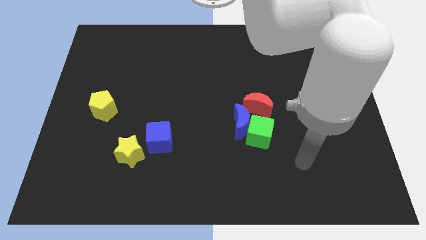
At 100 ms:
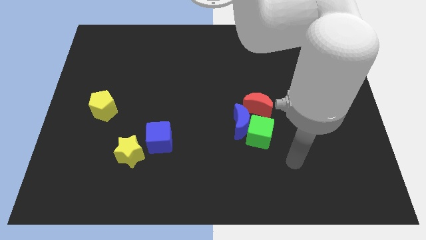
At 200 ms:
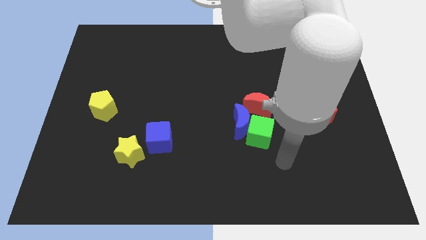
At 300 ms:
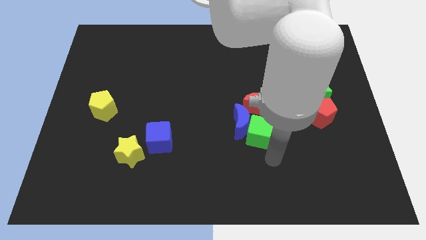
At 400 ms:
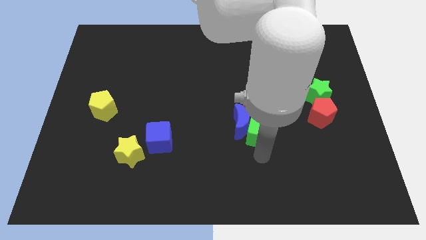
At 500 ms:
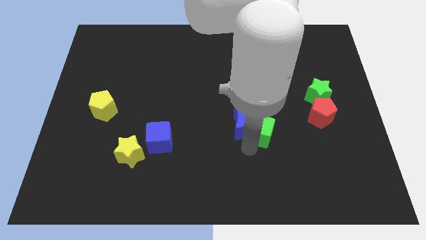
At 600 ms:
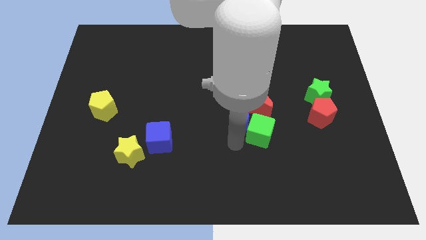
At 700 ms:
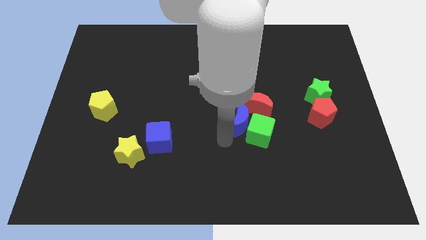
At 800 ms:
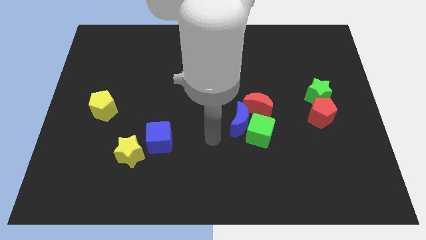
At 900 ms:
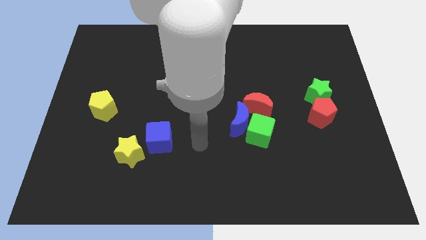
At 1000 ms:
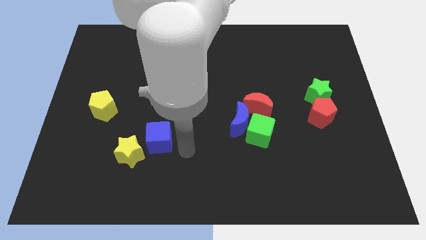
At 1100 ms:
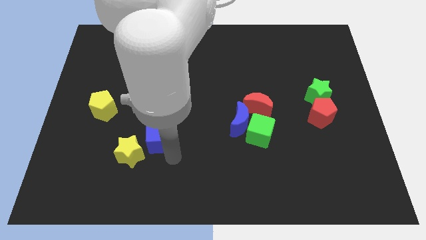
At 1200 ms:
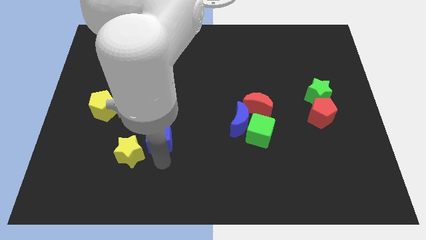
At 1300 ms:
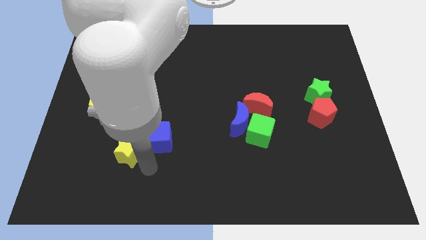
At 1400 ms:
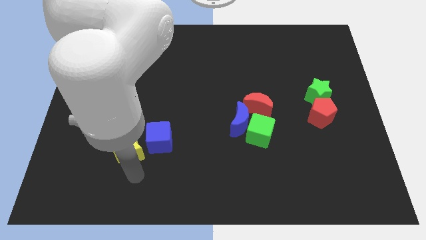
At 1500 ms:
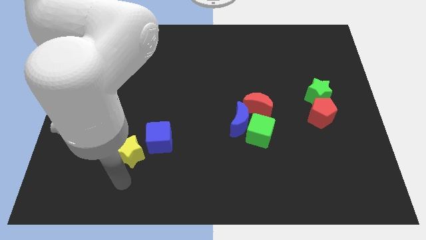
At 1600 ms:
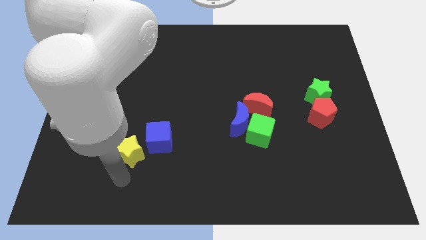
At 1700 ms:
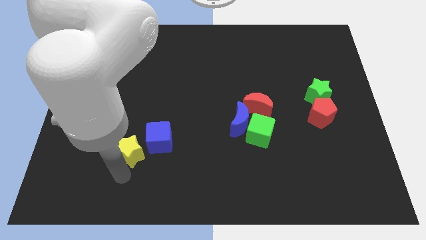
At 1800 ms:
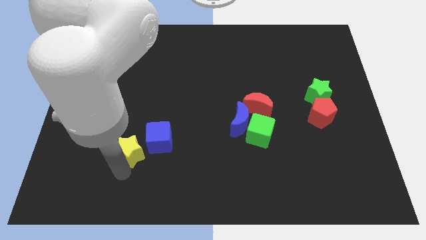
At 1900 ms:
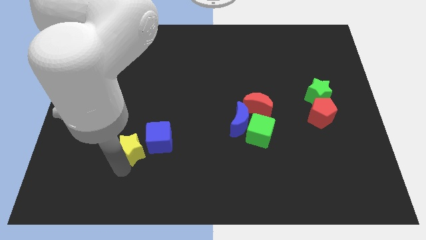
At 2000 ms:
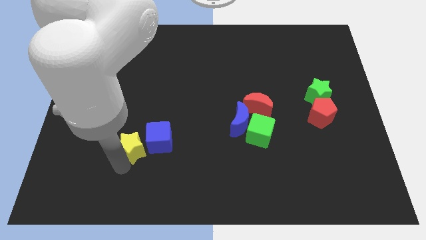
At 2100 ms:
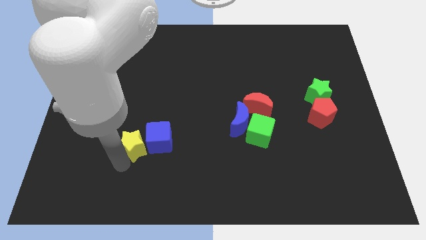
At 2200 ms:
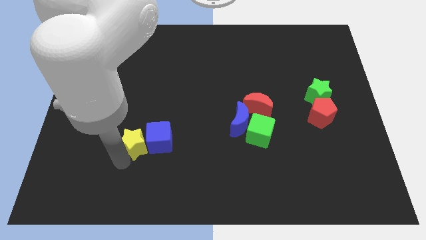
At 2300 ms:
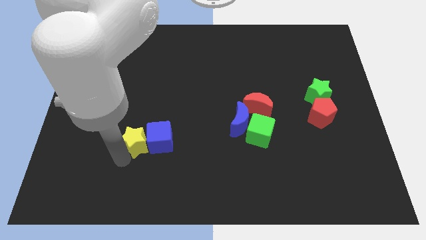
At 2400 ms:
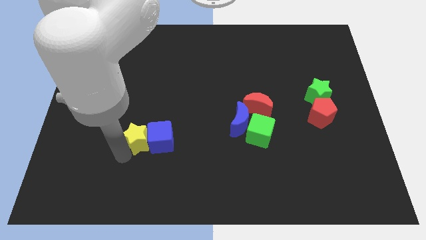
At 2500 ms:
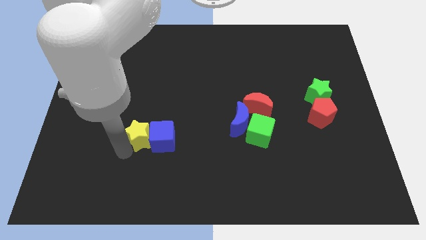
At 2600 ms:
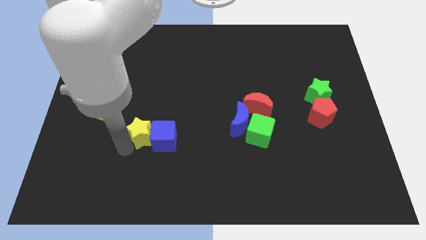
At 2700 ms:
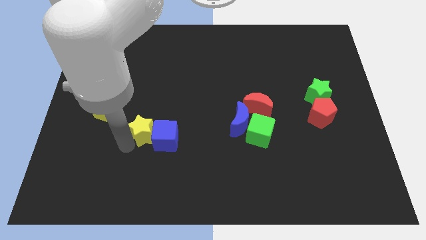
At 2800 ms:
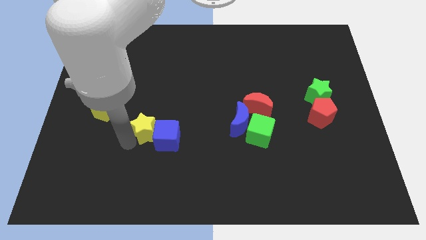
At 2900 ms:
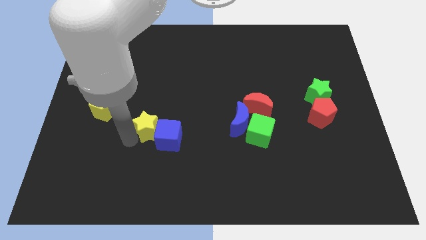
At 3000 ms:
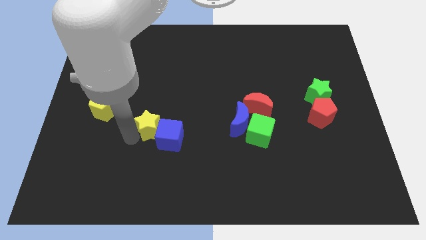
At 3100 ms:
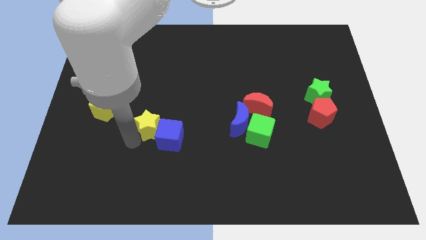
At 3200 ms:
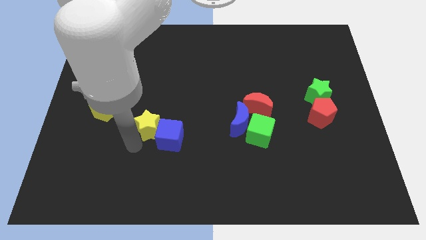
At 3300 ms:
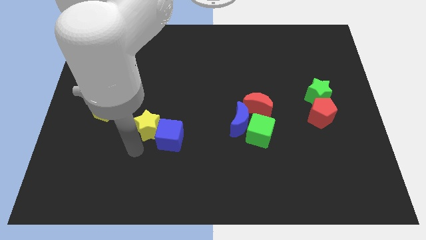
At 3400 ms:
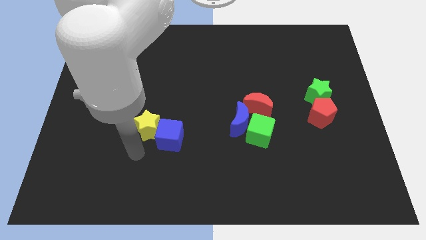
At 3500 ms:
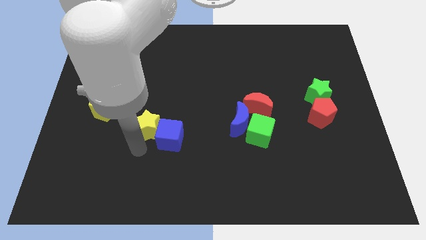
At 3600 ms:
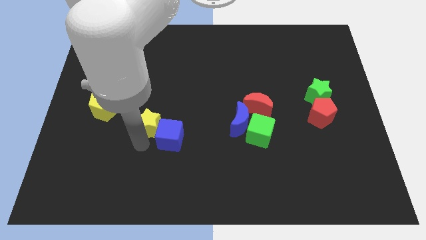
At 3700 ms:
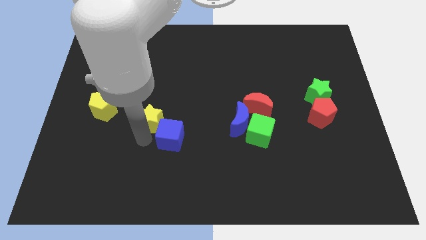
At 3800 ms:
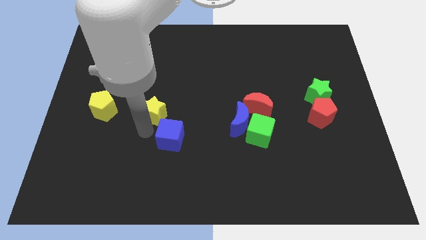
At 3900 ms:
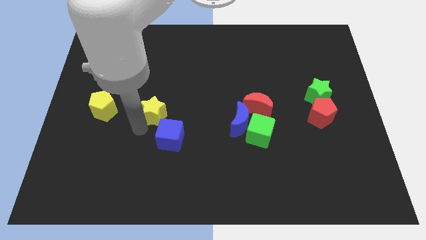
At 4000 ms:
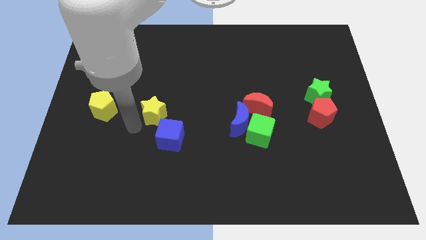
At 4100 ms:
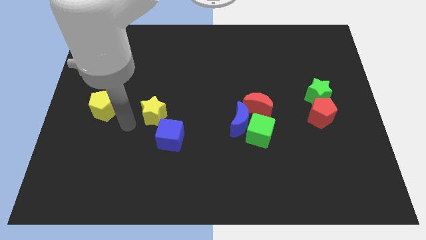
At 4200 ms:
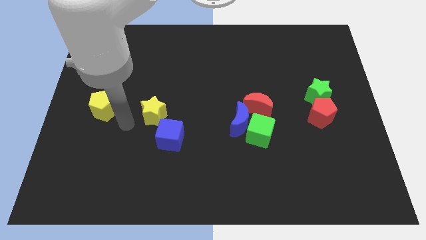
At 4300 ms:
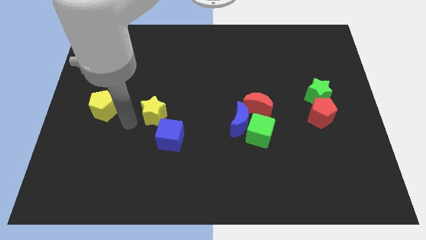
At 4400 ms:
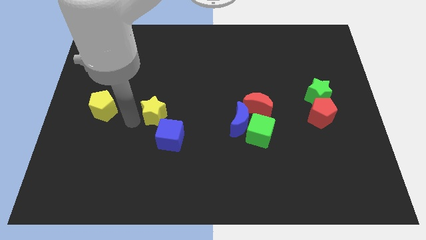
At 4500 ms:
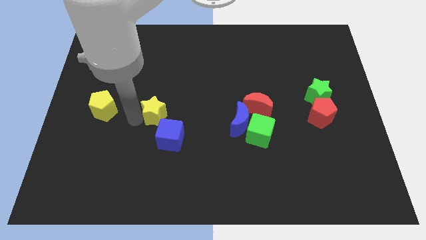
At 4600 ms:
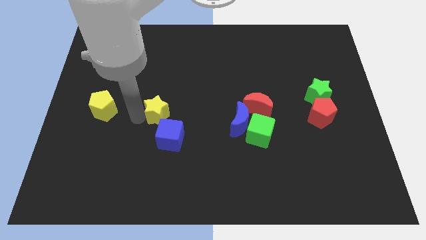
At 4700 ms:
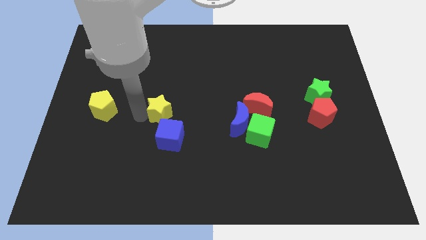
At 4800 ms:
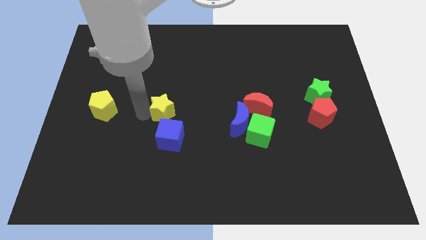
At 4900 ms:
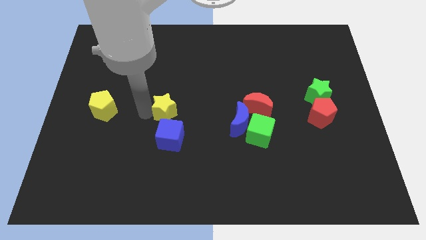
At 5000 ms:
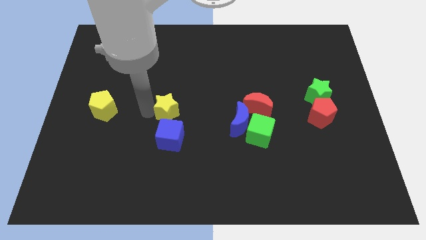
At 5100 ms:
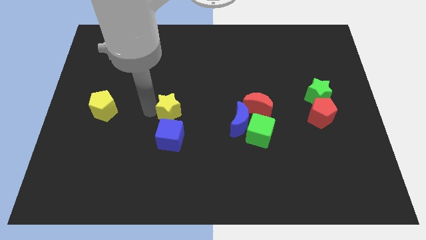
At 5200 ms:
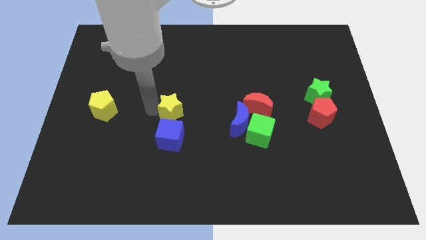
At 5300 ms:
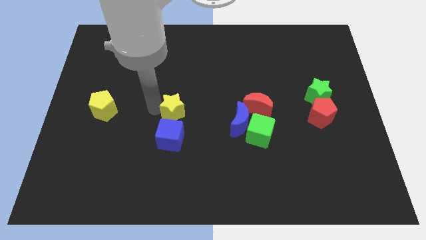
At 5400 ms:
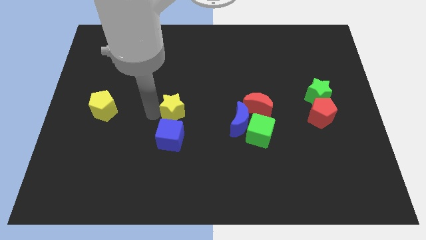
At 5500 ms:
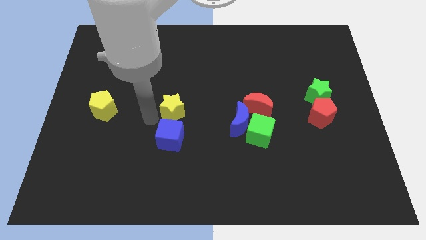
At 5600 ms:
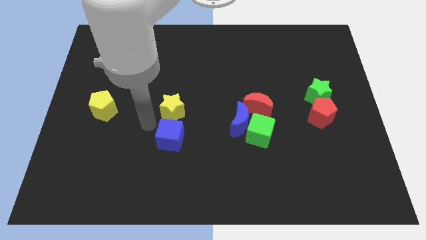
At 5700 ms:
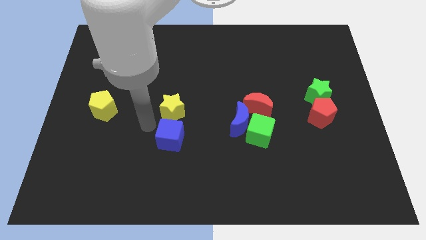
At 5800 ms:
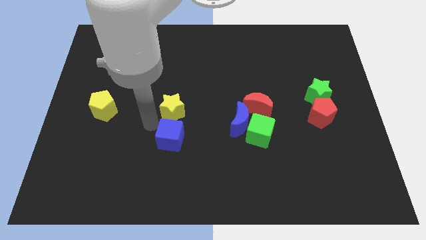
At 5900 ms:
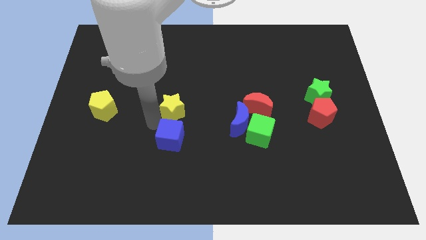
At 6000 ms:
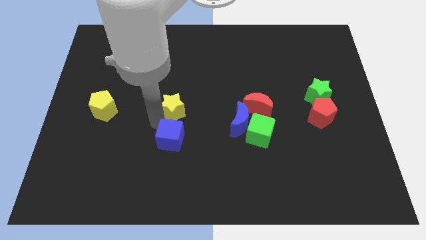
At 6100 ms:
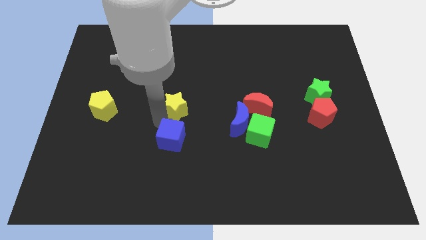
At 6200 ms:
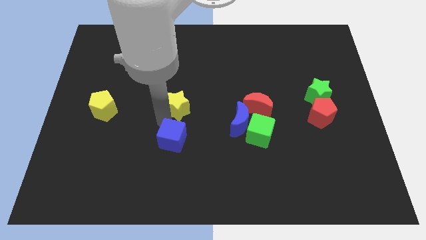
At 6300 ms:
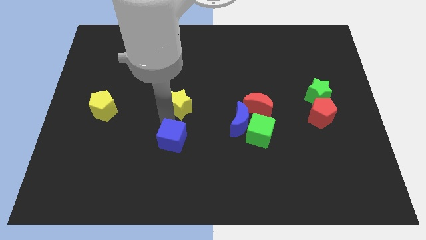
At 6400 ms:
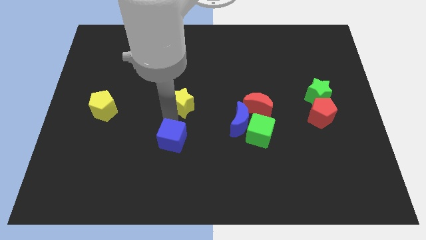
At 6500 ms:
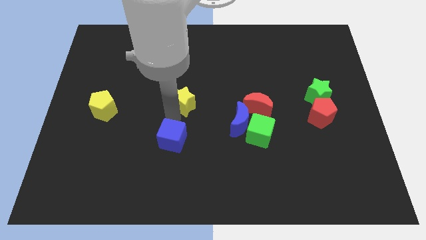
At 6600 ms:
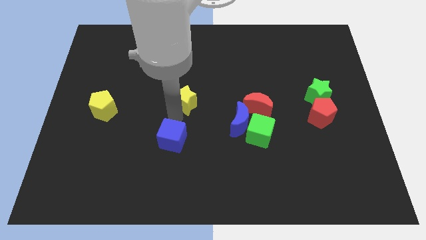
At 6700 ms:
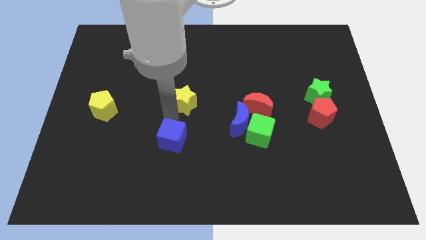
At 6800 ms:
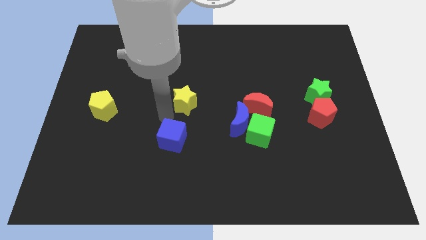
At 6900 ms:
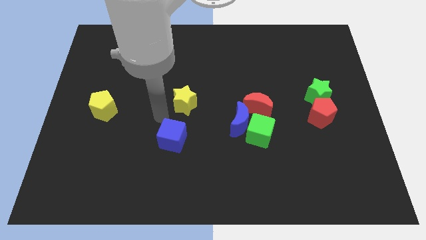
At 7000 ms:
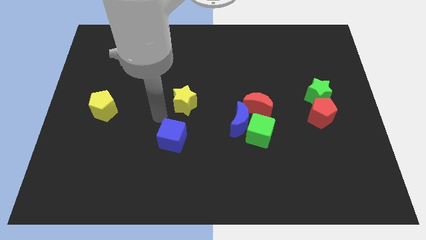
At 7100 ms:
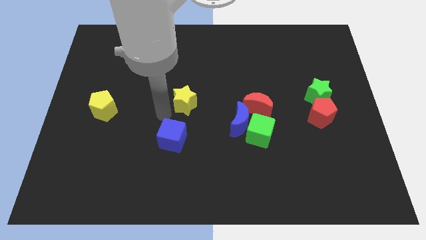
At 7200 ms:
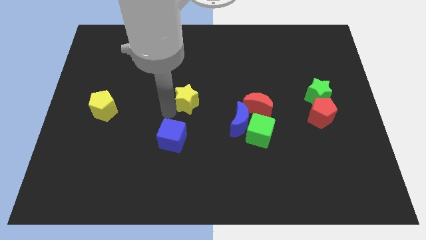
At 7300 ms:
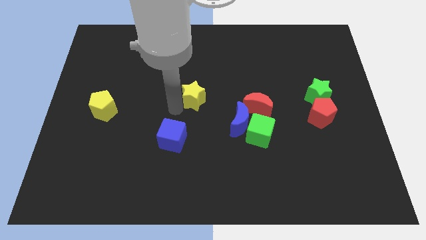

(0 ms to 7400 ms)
slide the yellow star up and then to the right

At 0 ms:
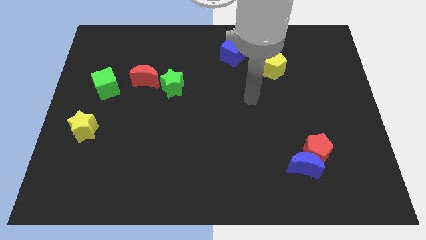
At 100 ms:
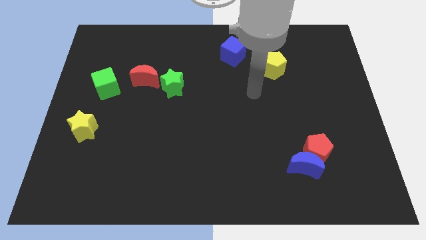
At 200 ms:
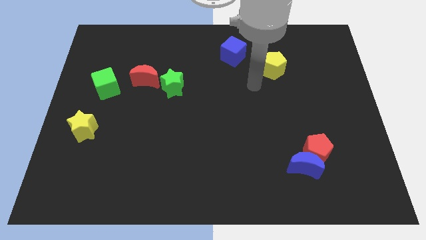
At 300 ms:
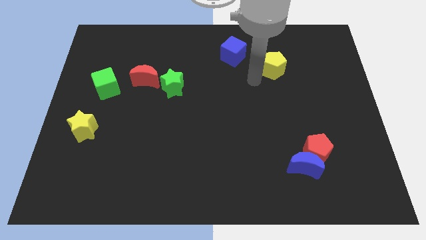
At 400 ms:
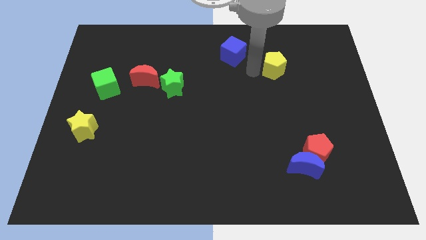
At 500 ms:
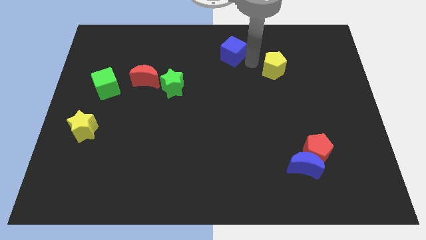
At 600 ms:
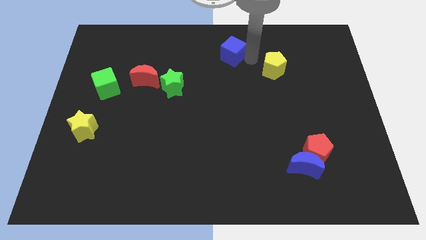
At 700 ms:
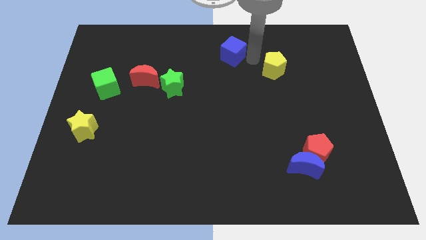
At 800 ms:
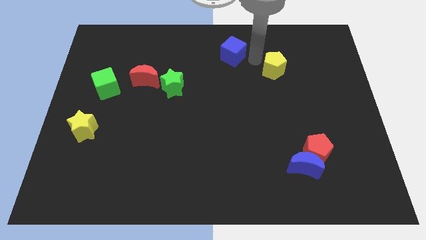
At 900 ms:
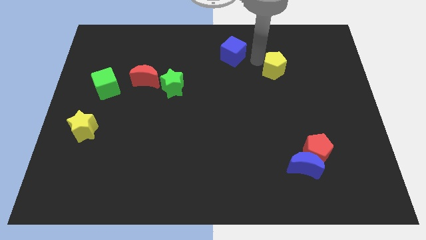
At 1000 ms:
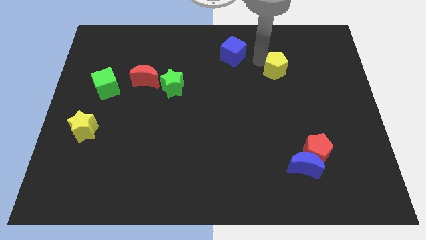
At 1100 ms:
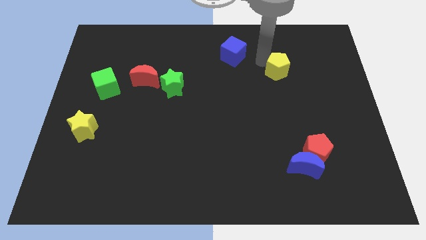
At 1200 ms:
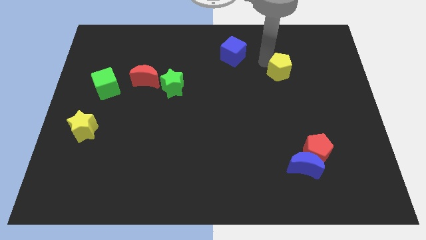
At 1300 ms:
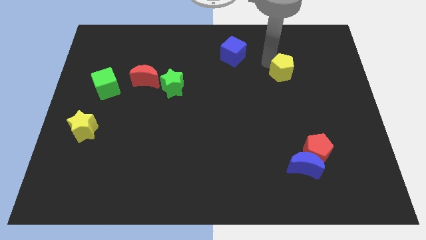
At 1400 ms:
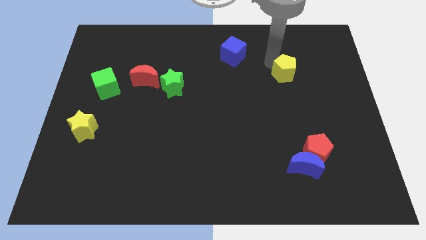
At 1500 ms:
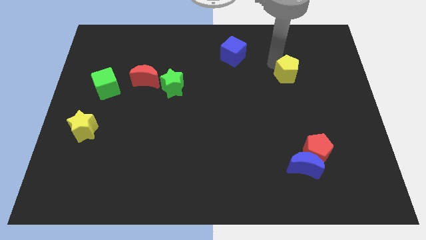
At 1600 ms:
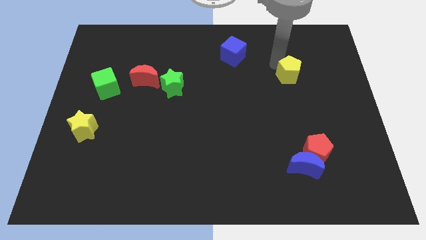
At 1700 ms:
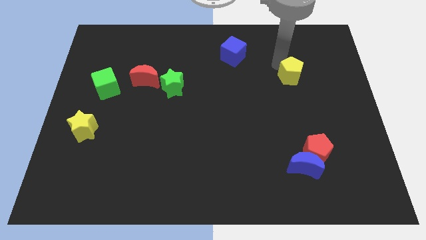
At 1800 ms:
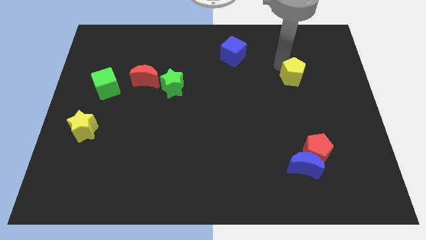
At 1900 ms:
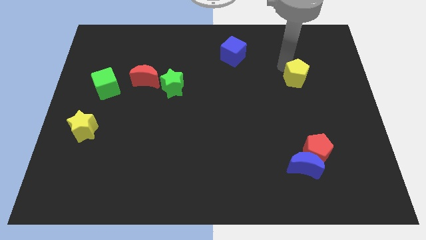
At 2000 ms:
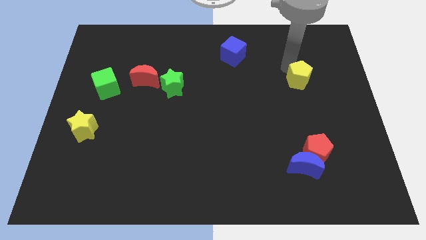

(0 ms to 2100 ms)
slightly push the yellow pentagon down and to the right diagonally
